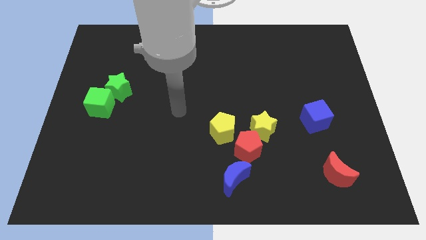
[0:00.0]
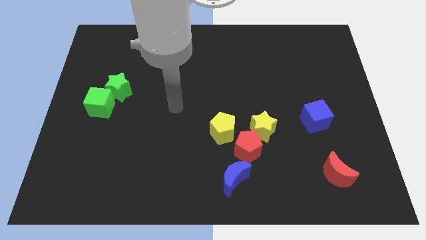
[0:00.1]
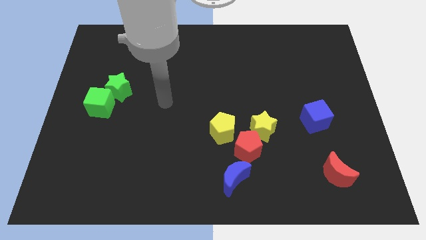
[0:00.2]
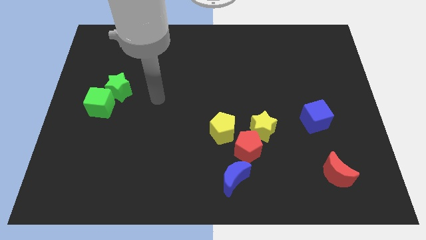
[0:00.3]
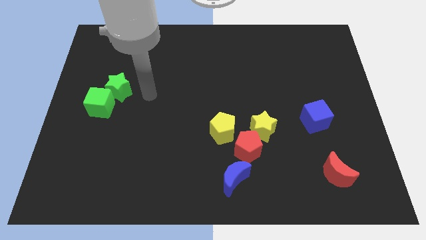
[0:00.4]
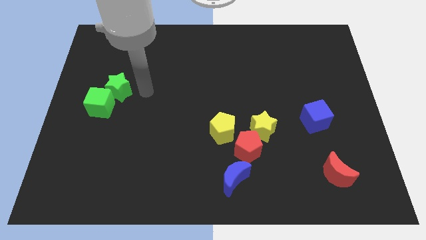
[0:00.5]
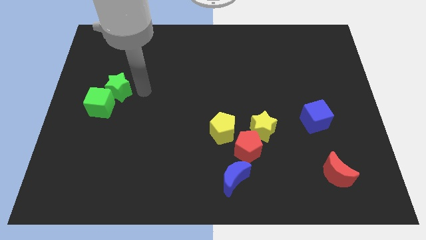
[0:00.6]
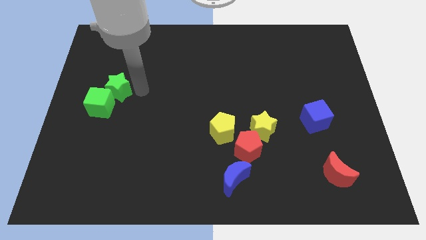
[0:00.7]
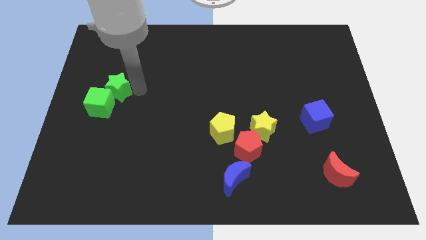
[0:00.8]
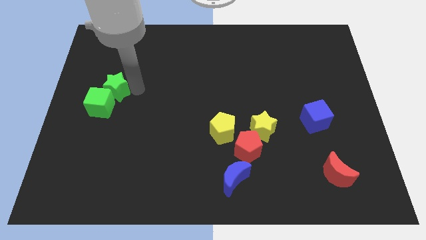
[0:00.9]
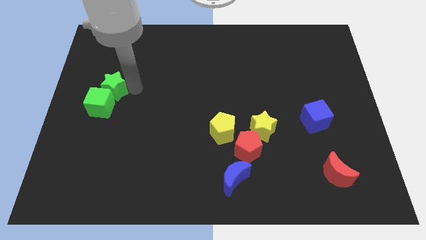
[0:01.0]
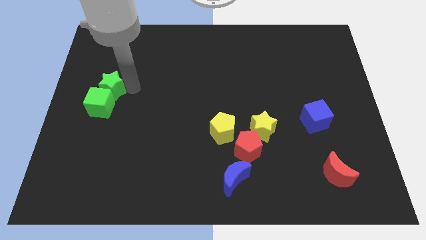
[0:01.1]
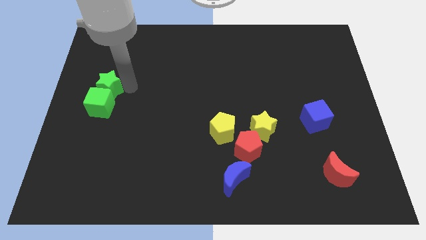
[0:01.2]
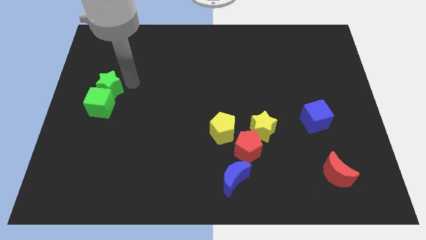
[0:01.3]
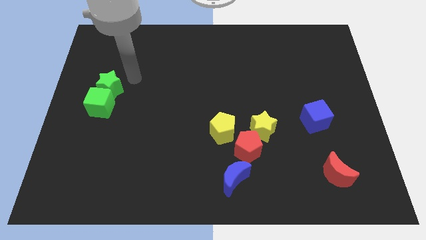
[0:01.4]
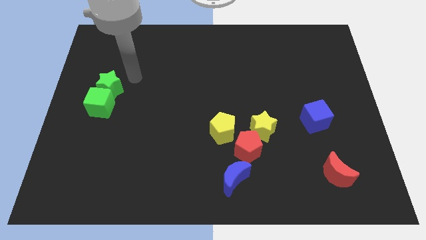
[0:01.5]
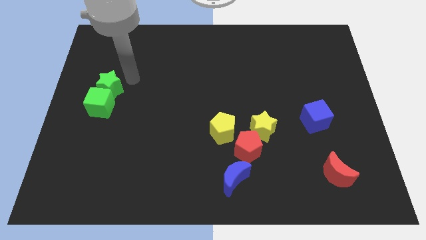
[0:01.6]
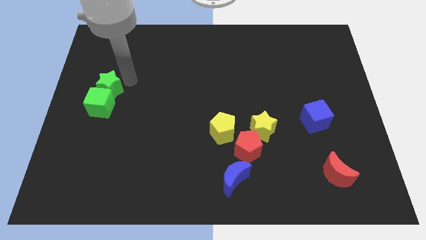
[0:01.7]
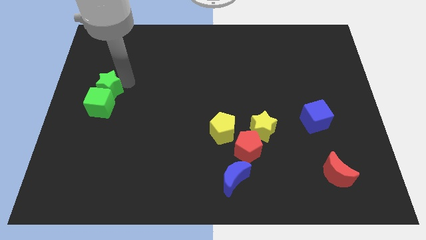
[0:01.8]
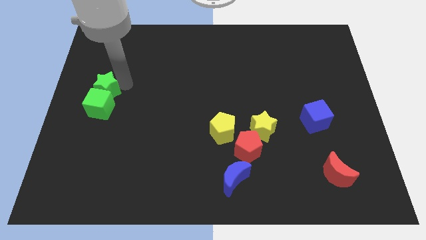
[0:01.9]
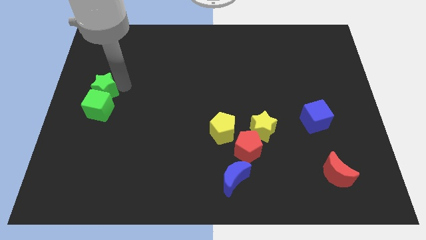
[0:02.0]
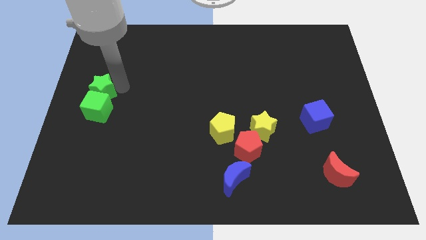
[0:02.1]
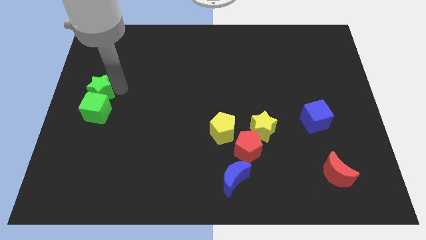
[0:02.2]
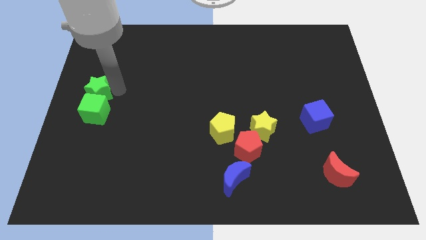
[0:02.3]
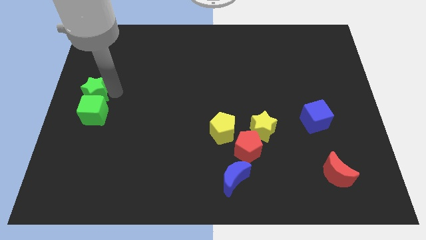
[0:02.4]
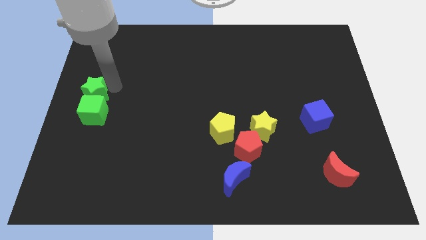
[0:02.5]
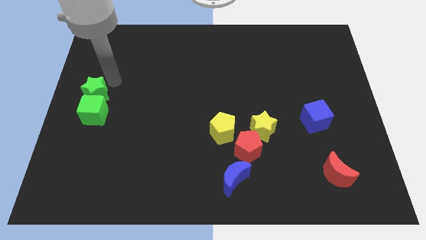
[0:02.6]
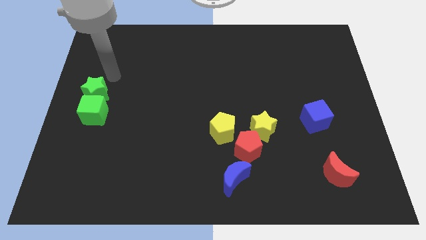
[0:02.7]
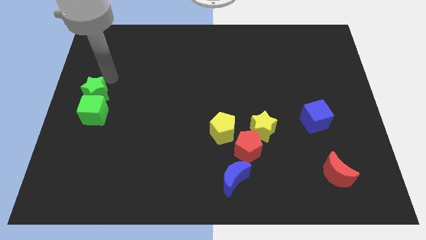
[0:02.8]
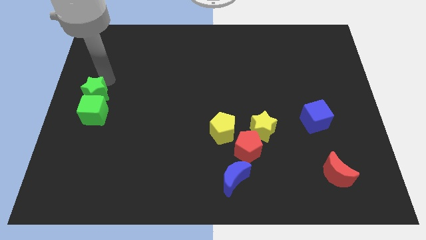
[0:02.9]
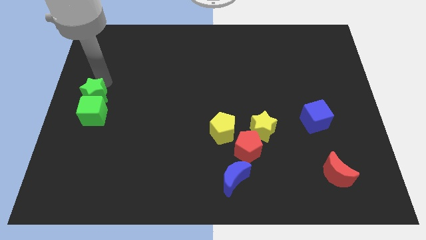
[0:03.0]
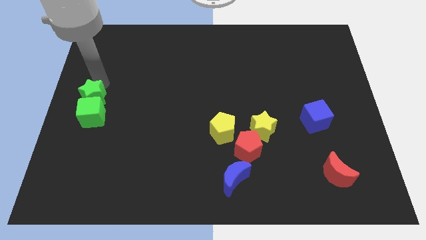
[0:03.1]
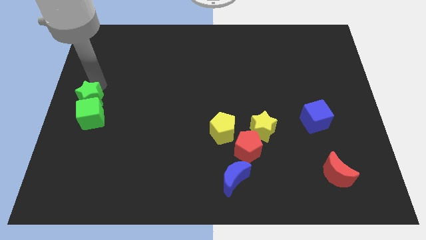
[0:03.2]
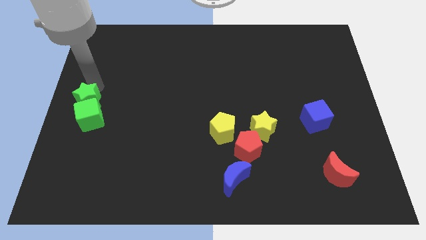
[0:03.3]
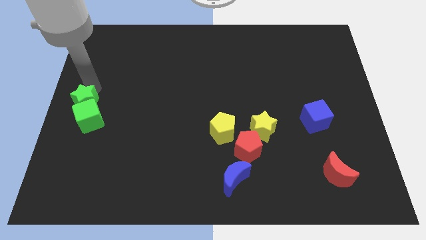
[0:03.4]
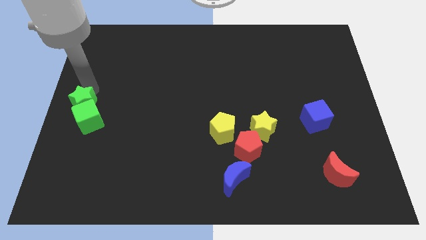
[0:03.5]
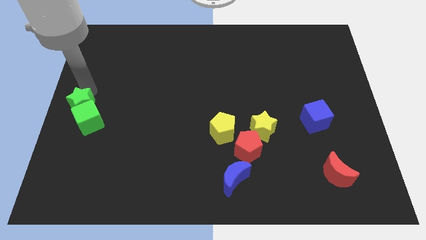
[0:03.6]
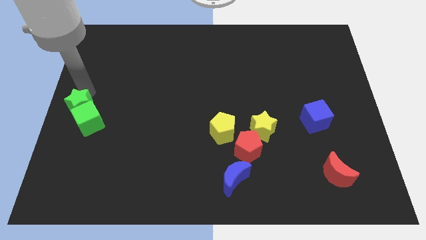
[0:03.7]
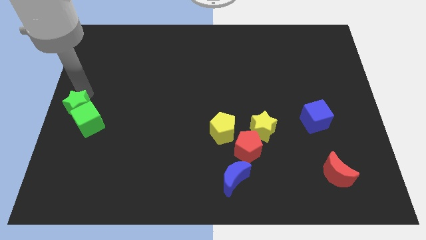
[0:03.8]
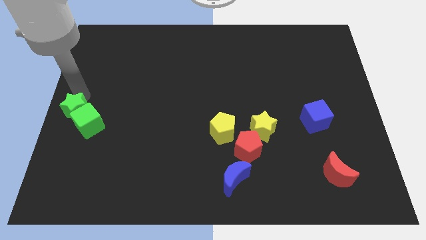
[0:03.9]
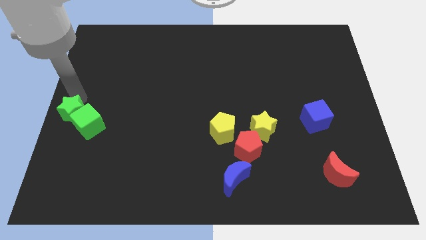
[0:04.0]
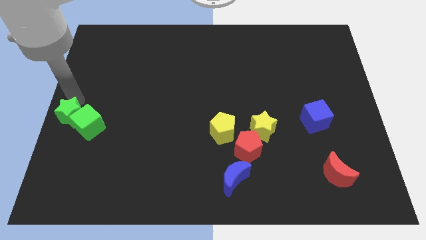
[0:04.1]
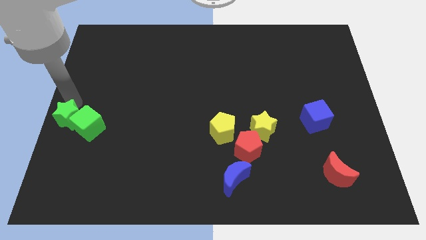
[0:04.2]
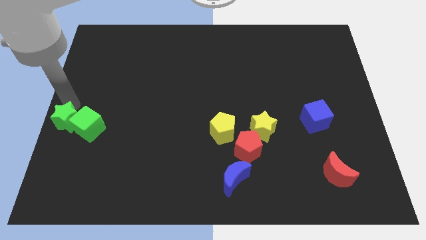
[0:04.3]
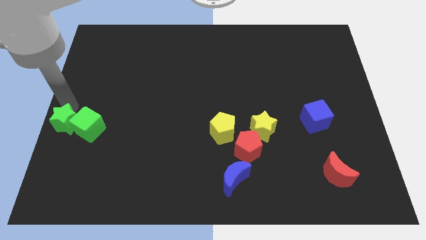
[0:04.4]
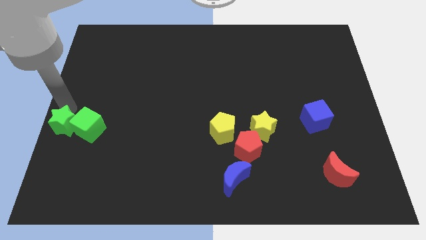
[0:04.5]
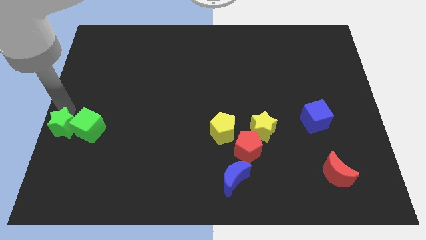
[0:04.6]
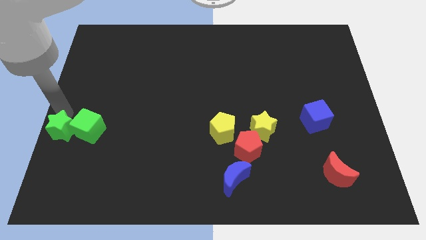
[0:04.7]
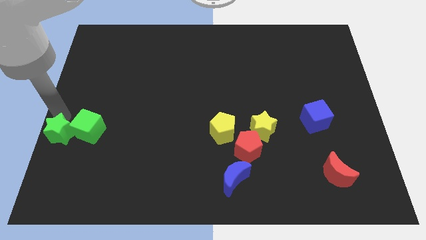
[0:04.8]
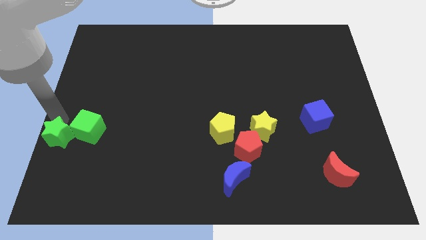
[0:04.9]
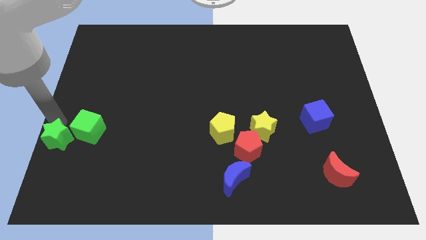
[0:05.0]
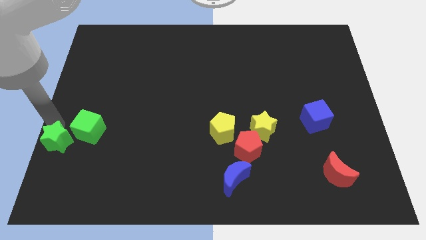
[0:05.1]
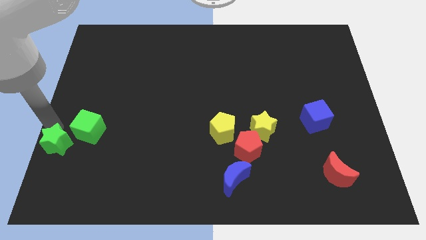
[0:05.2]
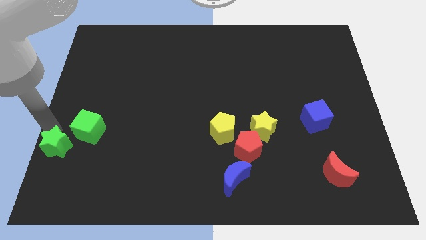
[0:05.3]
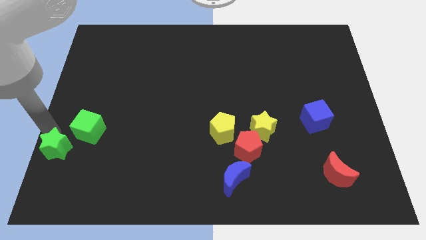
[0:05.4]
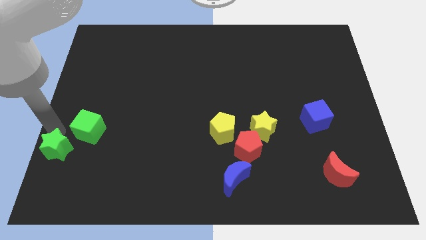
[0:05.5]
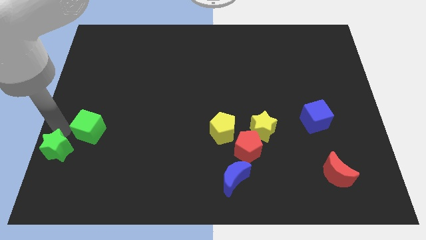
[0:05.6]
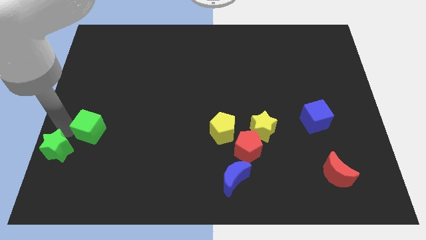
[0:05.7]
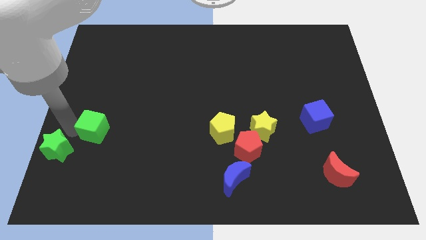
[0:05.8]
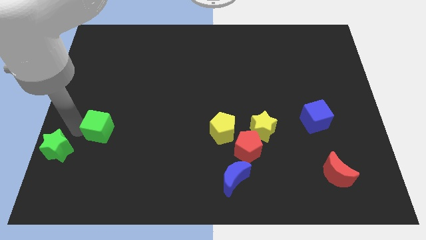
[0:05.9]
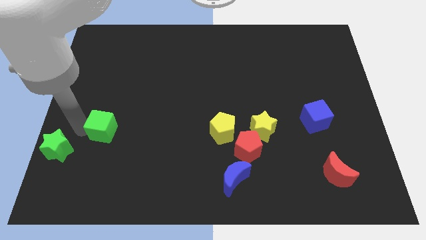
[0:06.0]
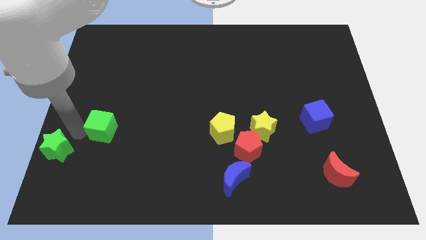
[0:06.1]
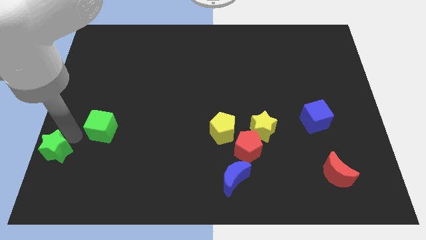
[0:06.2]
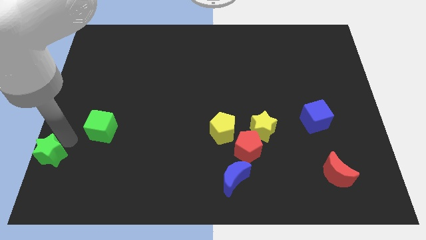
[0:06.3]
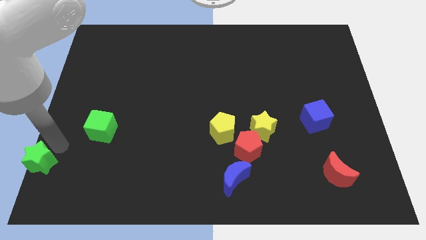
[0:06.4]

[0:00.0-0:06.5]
put the green star to the bottom left corner
